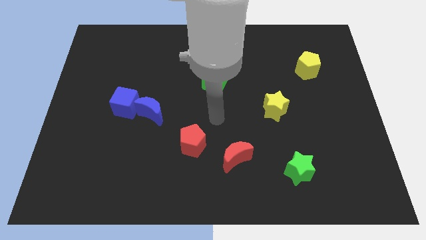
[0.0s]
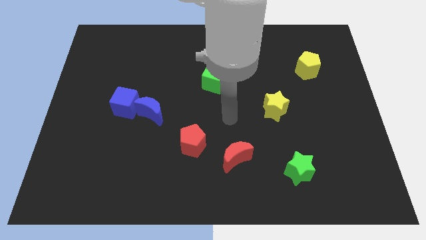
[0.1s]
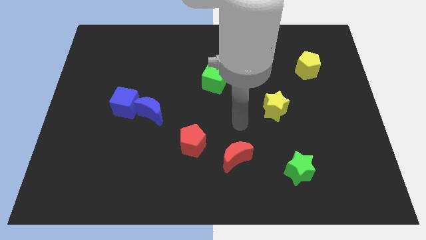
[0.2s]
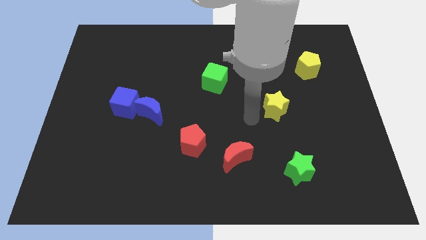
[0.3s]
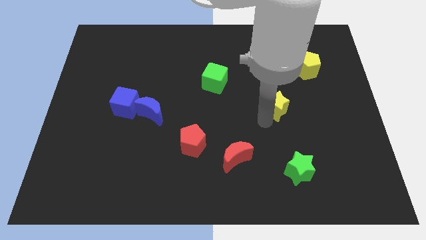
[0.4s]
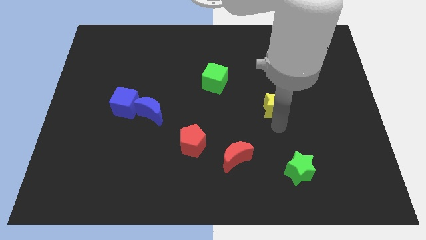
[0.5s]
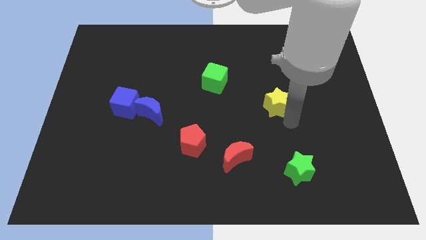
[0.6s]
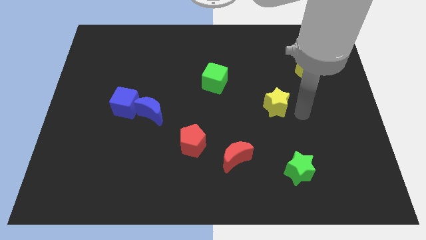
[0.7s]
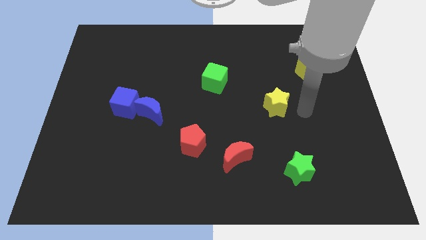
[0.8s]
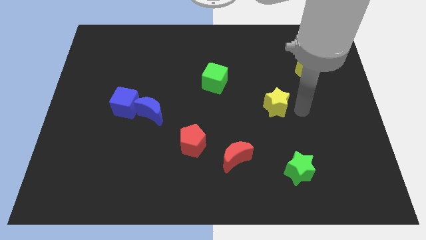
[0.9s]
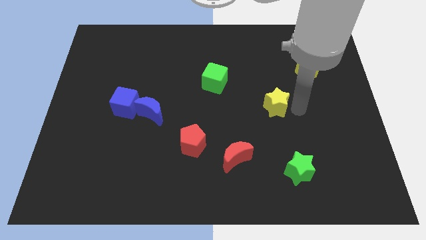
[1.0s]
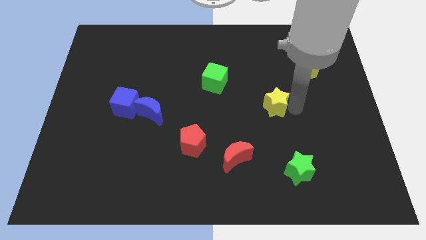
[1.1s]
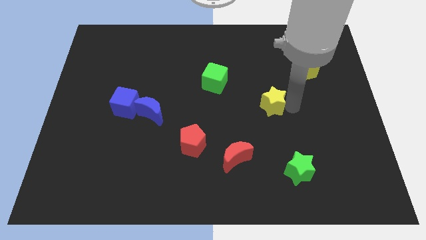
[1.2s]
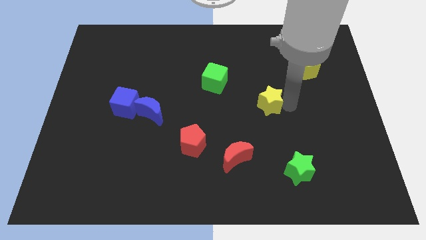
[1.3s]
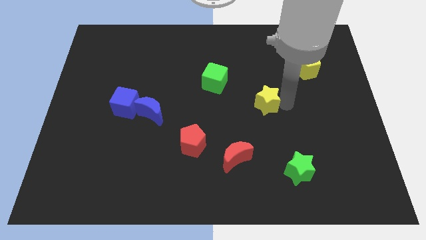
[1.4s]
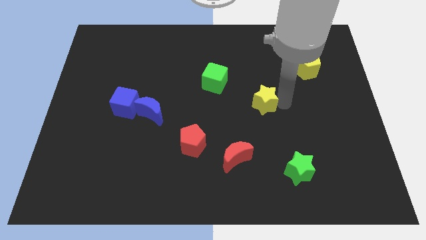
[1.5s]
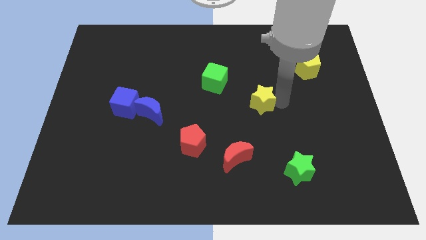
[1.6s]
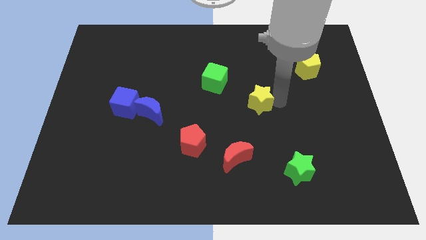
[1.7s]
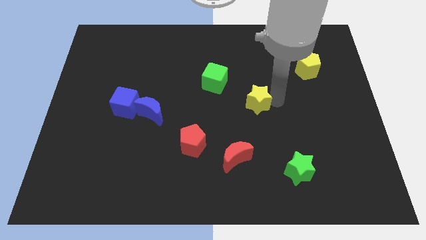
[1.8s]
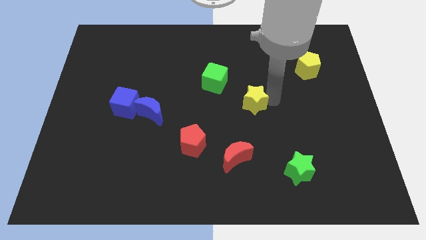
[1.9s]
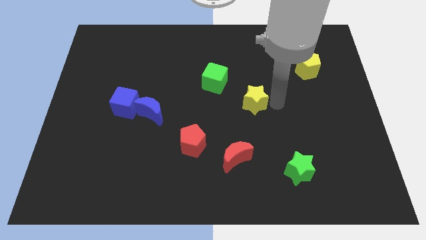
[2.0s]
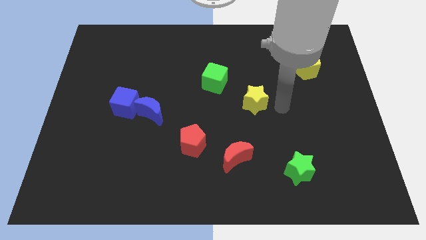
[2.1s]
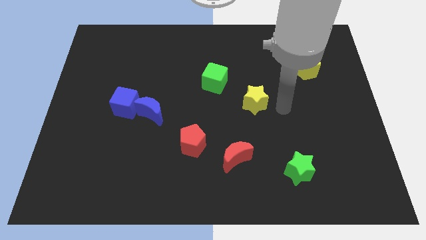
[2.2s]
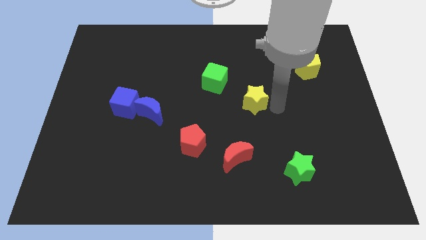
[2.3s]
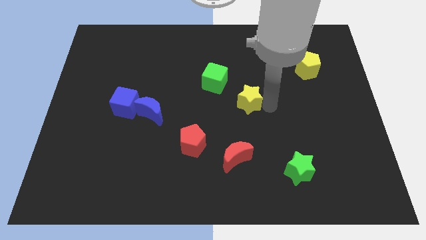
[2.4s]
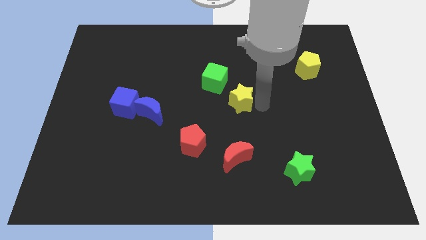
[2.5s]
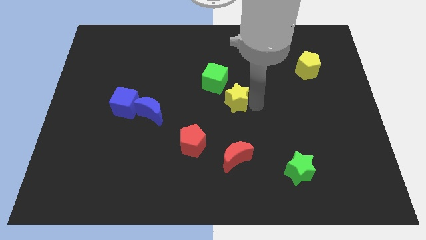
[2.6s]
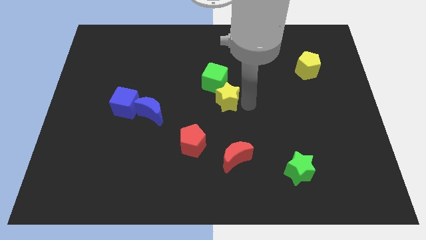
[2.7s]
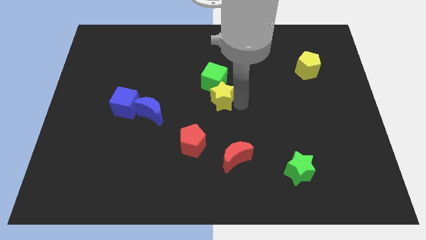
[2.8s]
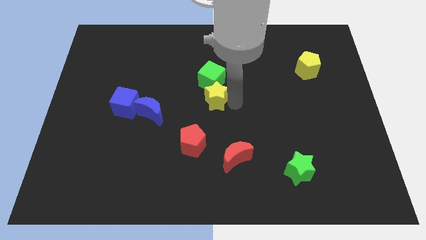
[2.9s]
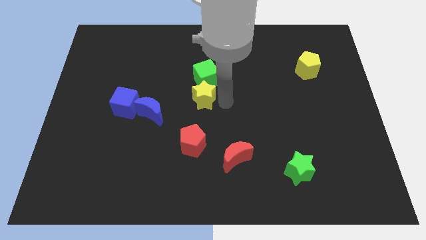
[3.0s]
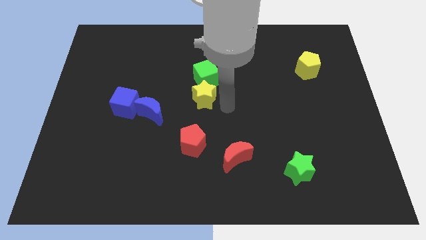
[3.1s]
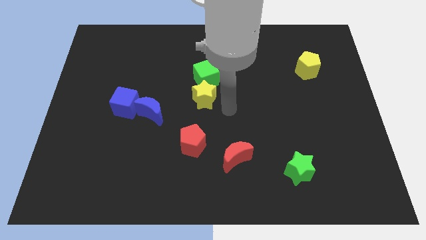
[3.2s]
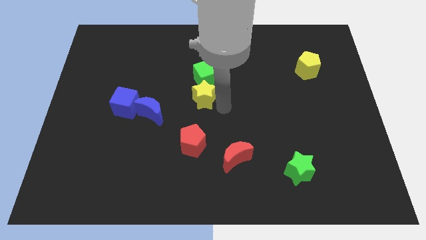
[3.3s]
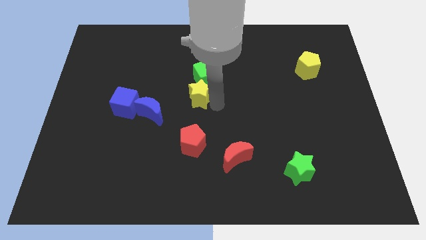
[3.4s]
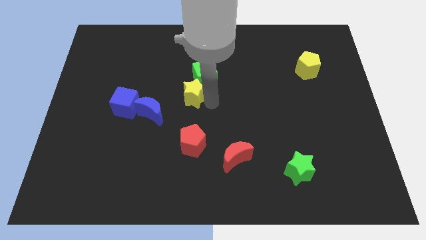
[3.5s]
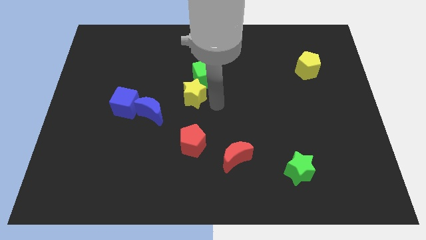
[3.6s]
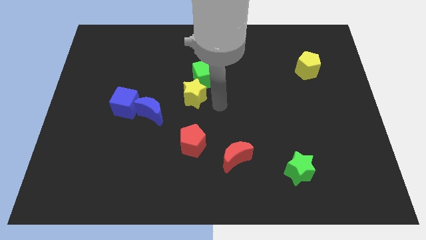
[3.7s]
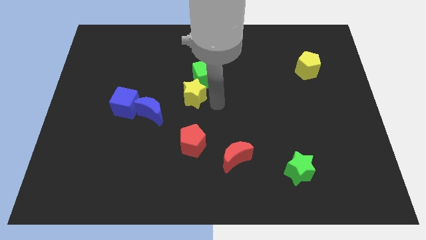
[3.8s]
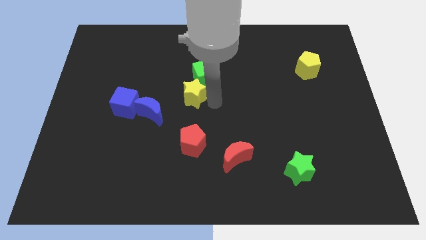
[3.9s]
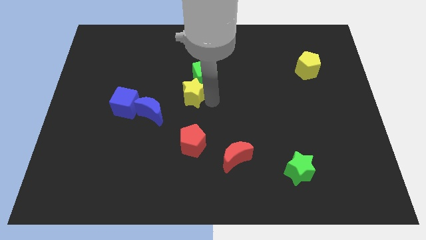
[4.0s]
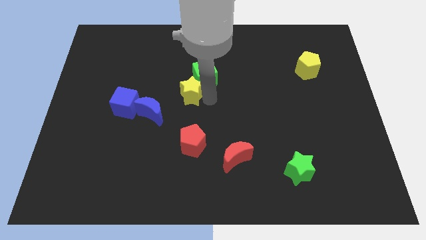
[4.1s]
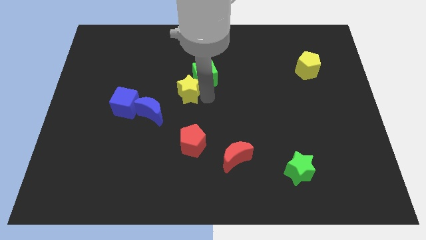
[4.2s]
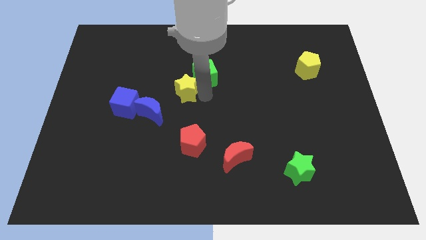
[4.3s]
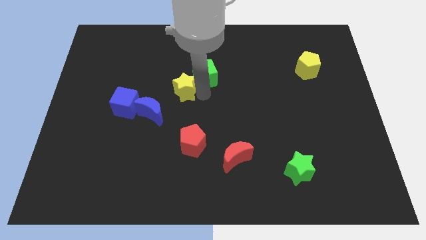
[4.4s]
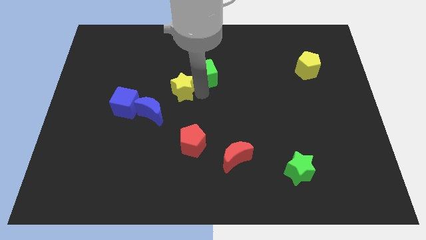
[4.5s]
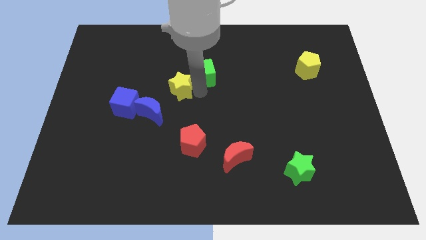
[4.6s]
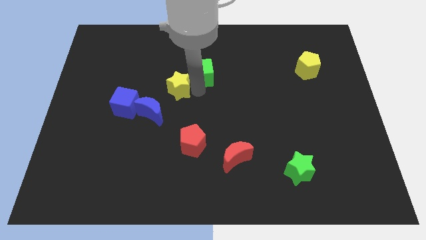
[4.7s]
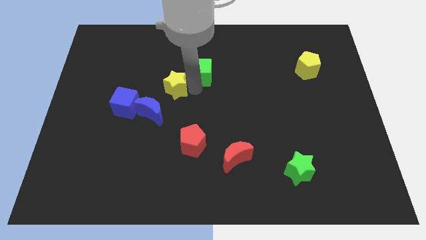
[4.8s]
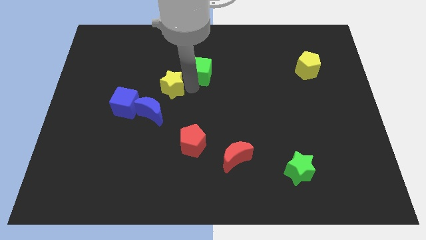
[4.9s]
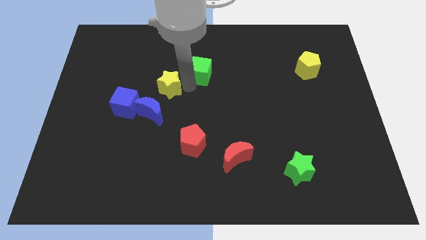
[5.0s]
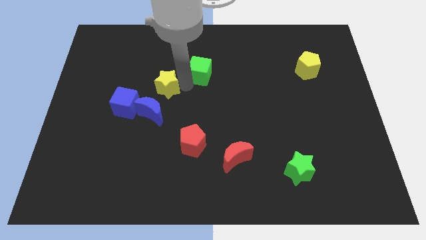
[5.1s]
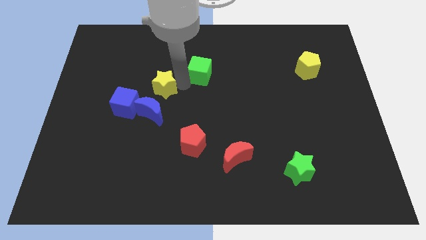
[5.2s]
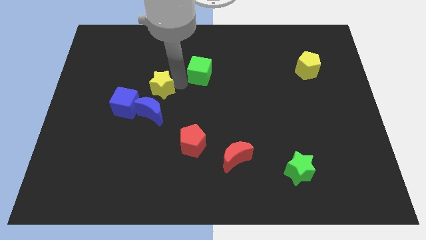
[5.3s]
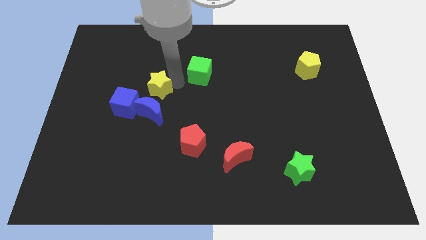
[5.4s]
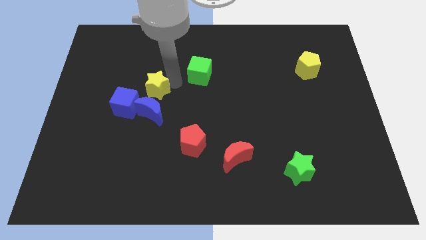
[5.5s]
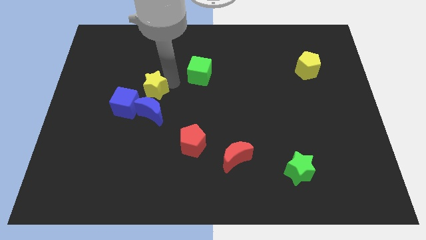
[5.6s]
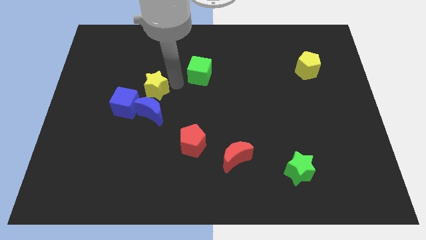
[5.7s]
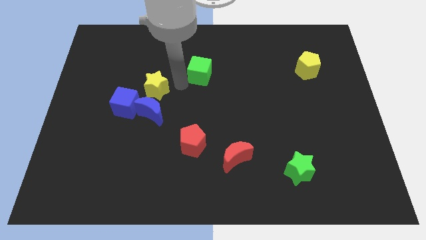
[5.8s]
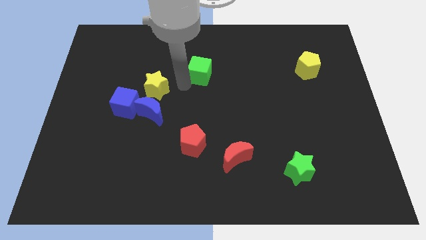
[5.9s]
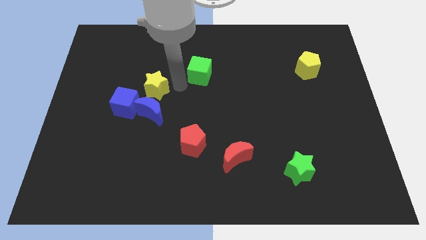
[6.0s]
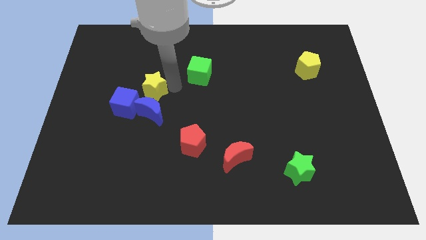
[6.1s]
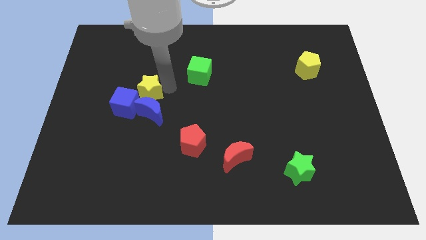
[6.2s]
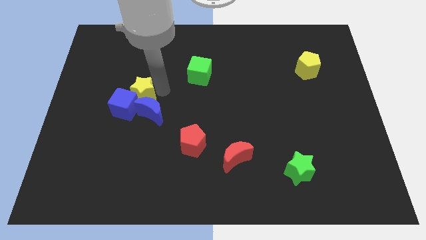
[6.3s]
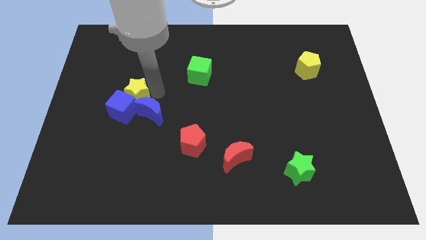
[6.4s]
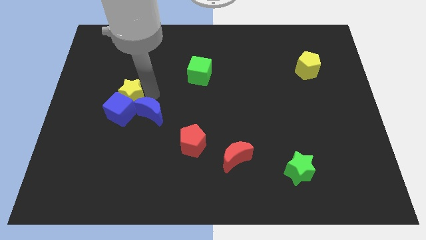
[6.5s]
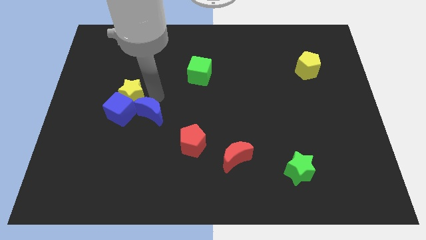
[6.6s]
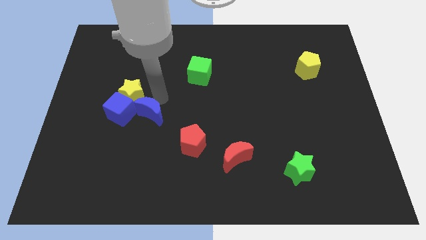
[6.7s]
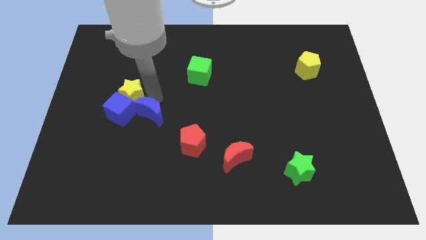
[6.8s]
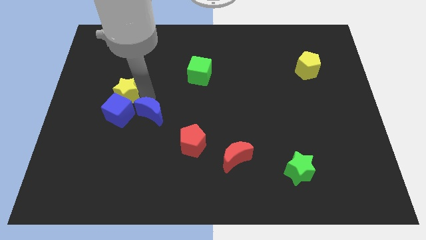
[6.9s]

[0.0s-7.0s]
move the yellow star to the top left side of the blue cube

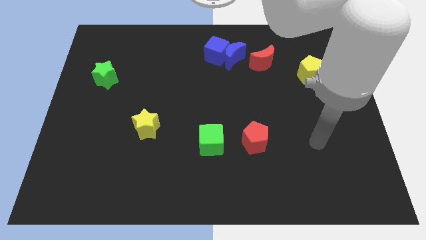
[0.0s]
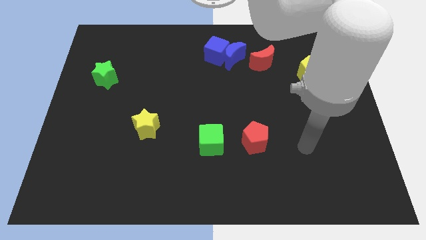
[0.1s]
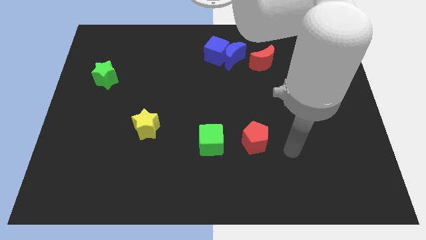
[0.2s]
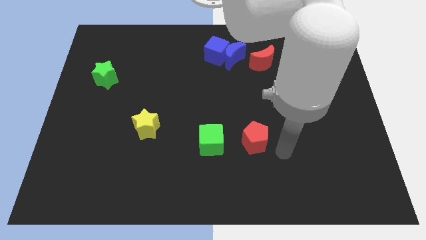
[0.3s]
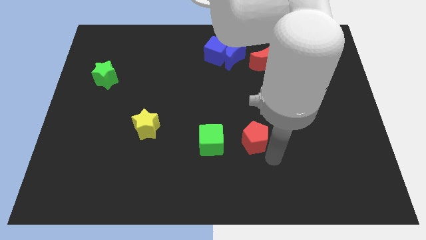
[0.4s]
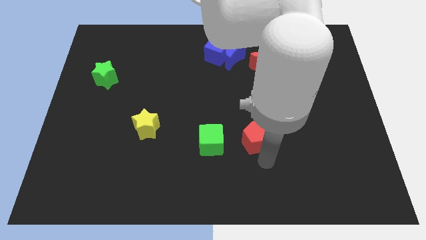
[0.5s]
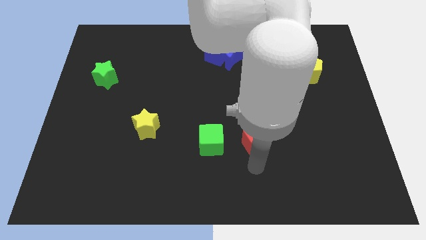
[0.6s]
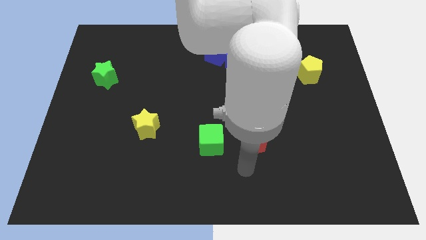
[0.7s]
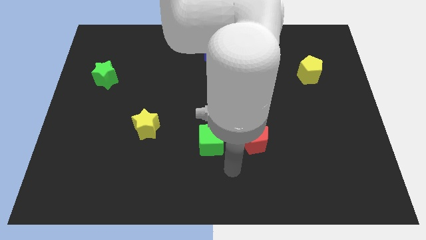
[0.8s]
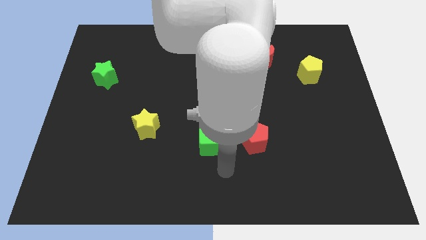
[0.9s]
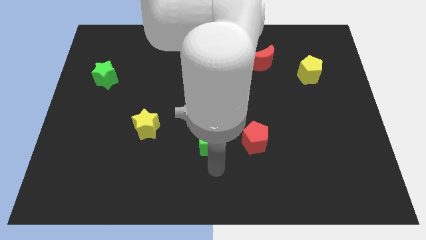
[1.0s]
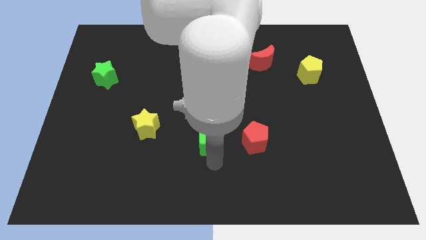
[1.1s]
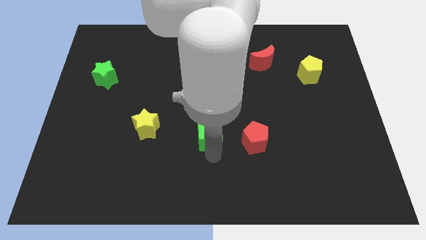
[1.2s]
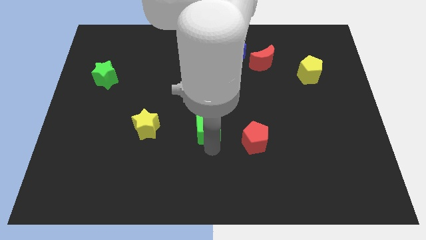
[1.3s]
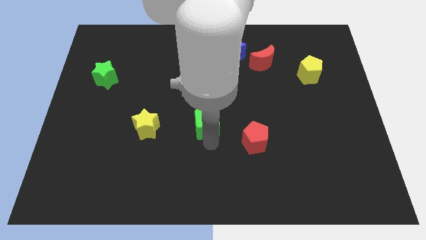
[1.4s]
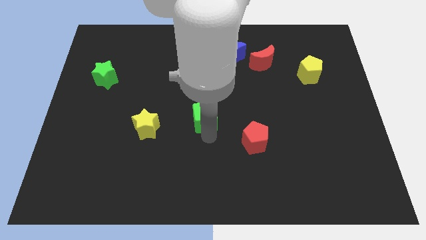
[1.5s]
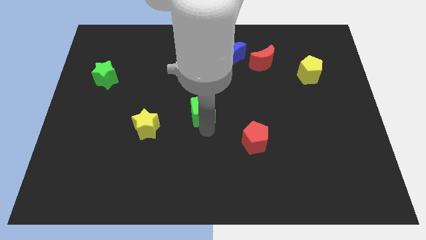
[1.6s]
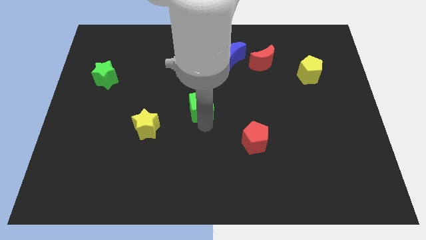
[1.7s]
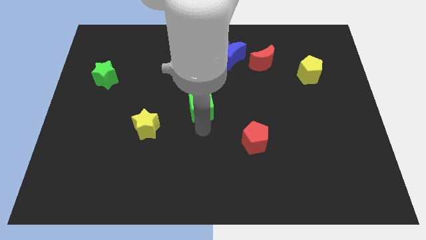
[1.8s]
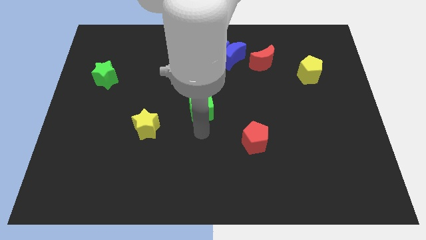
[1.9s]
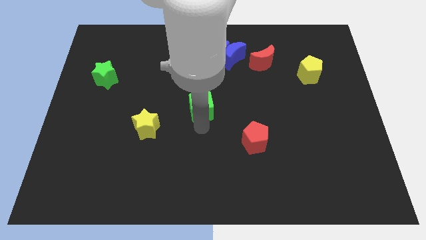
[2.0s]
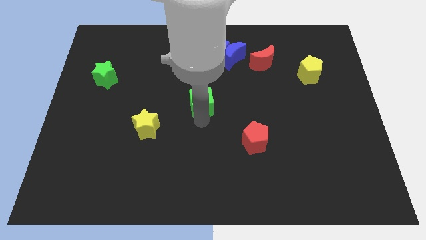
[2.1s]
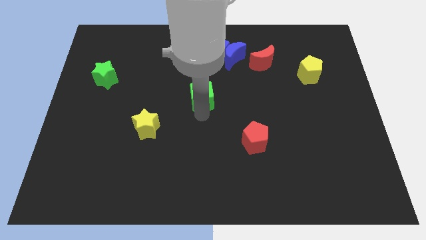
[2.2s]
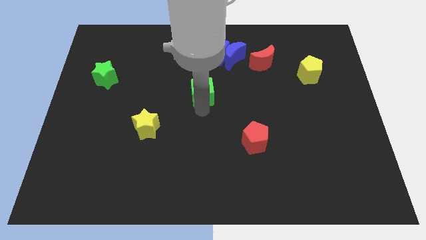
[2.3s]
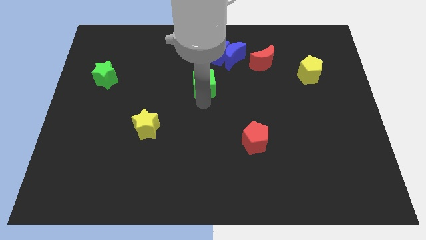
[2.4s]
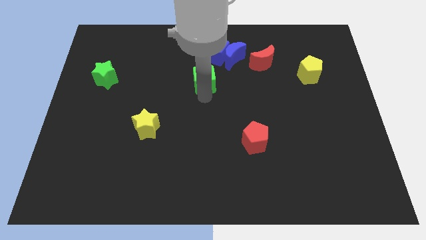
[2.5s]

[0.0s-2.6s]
move the green cube to the bottom left of the blue cube
